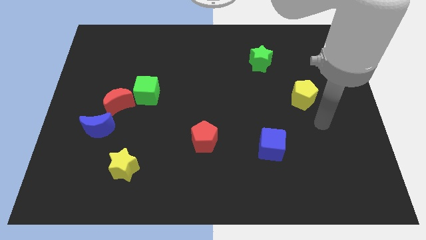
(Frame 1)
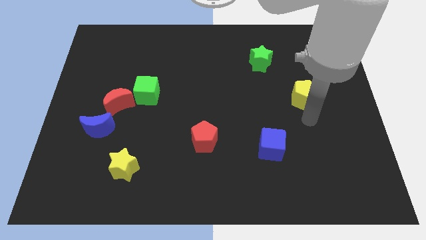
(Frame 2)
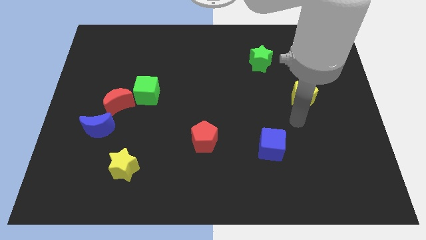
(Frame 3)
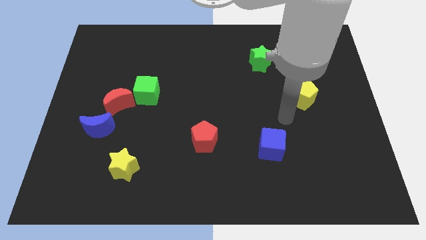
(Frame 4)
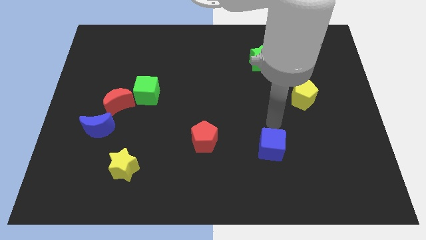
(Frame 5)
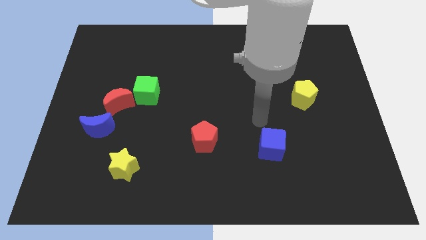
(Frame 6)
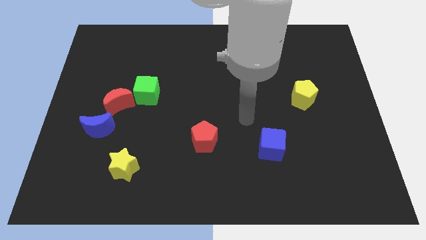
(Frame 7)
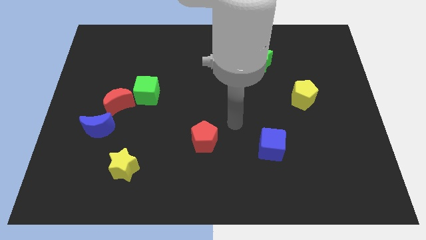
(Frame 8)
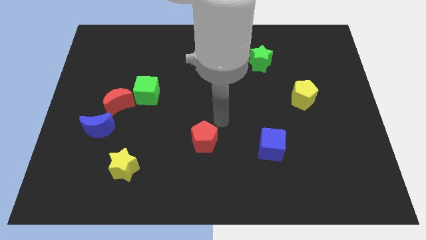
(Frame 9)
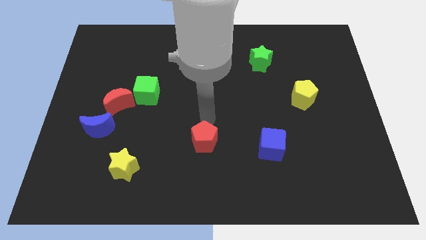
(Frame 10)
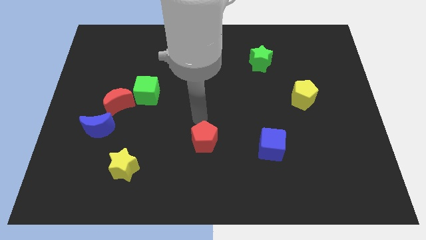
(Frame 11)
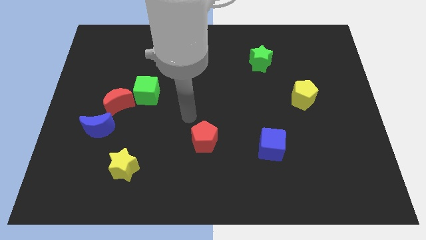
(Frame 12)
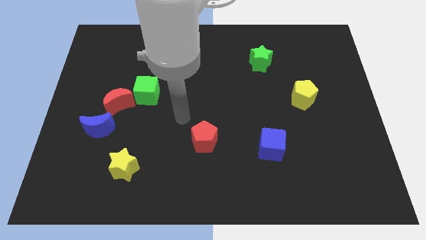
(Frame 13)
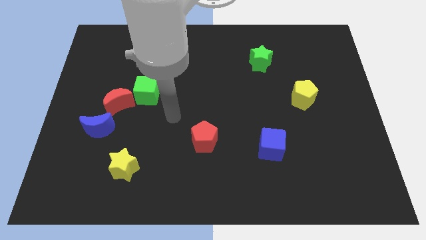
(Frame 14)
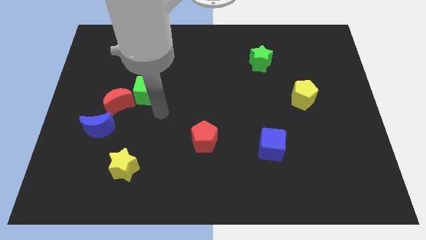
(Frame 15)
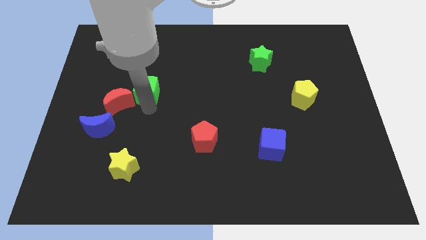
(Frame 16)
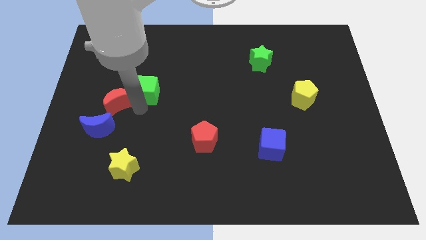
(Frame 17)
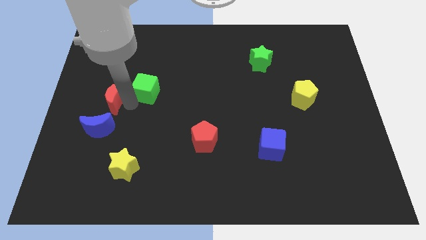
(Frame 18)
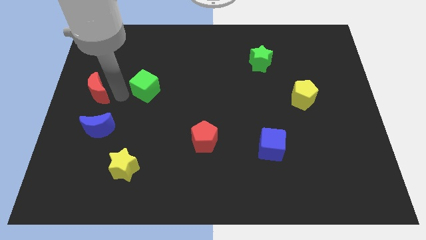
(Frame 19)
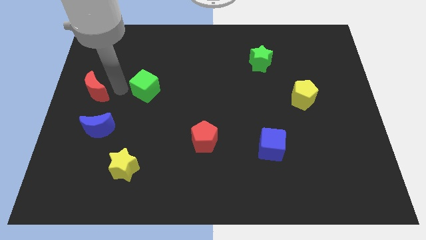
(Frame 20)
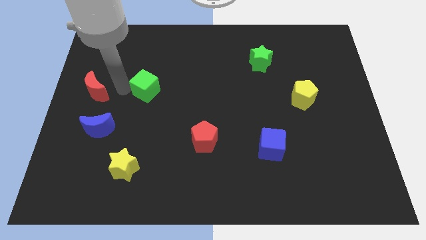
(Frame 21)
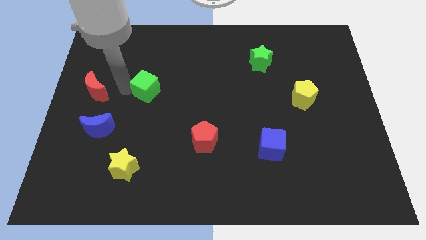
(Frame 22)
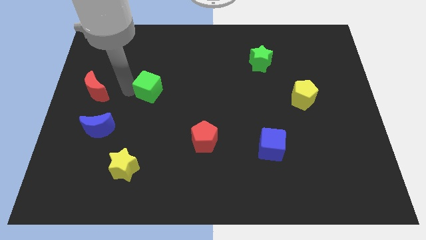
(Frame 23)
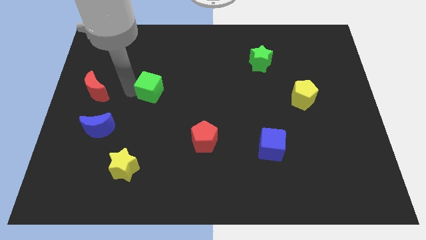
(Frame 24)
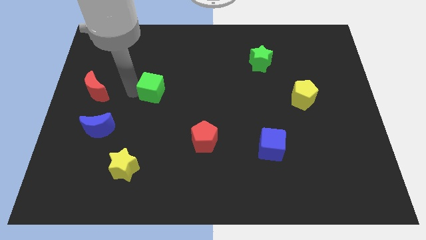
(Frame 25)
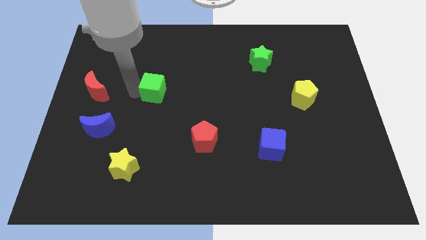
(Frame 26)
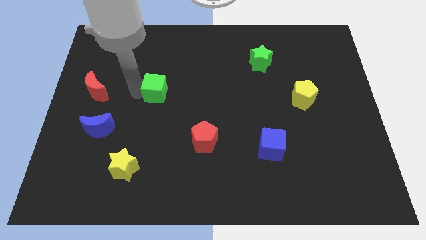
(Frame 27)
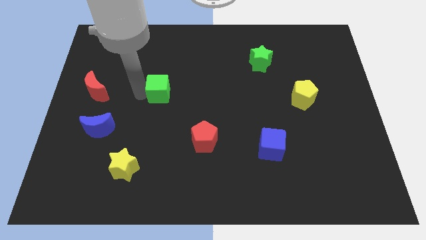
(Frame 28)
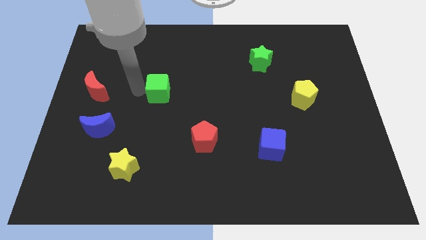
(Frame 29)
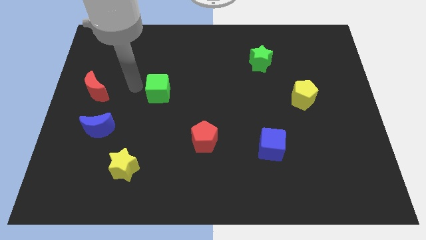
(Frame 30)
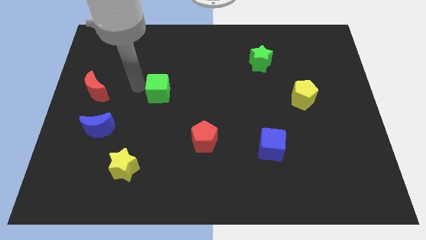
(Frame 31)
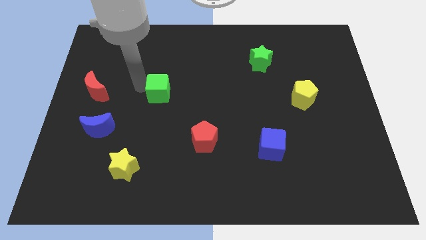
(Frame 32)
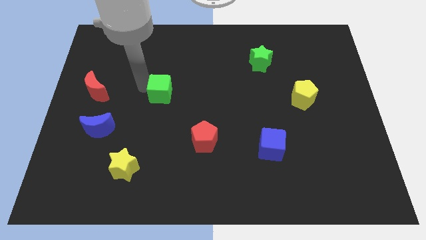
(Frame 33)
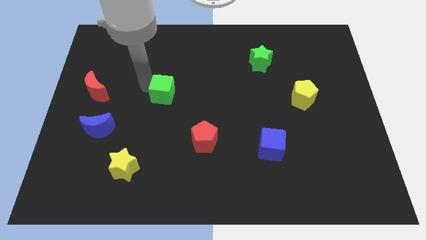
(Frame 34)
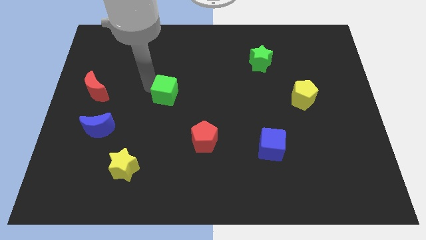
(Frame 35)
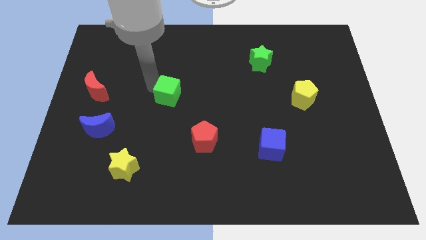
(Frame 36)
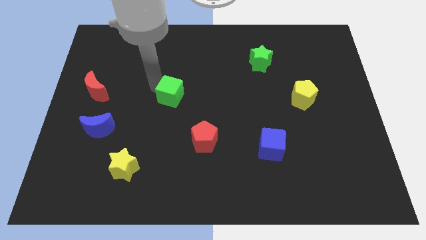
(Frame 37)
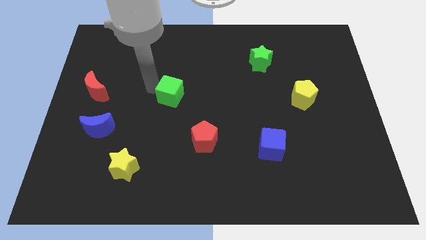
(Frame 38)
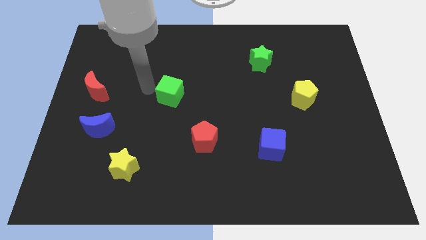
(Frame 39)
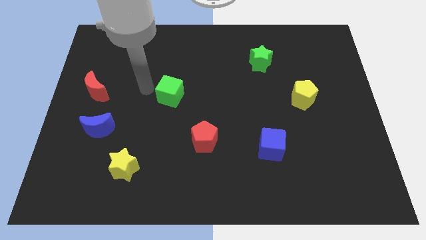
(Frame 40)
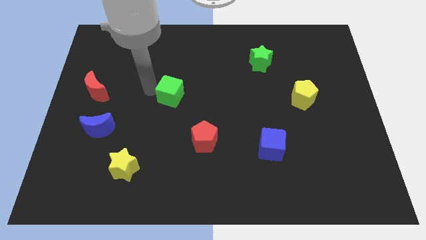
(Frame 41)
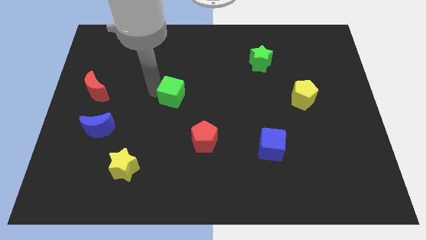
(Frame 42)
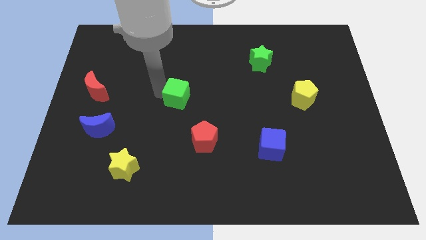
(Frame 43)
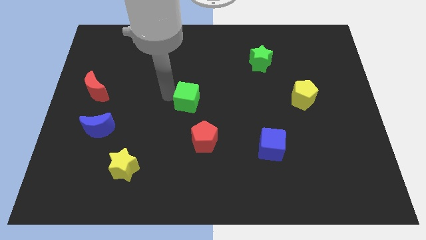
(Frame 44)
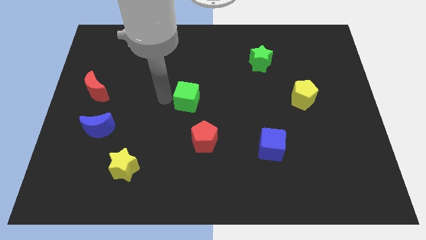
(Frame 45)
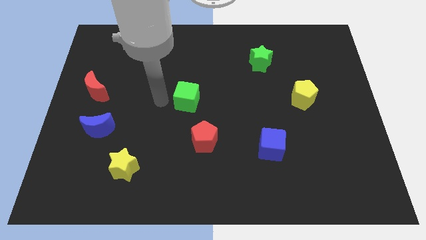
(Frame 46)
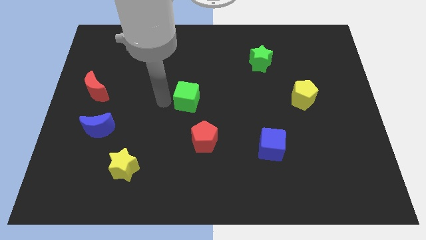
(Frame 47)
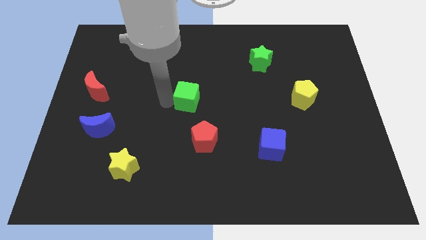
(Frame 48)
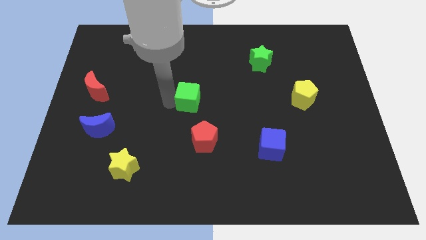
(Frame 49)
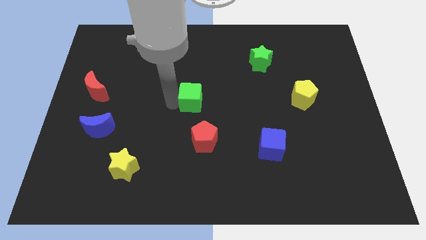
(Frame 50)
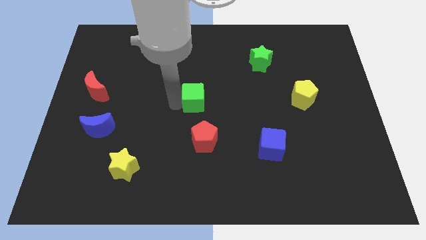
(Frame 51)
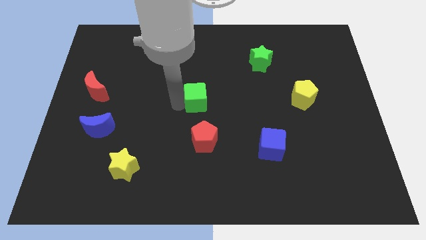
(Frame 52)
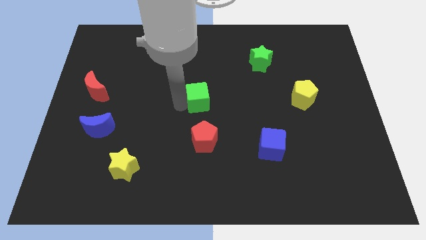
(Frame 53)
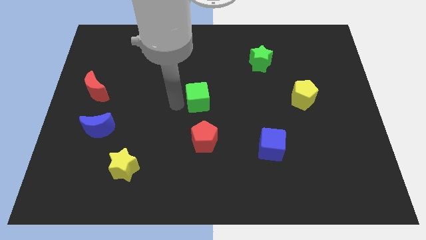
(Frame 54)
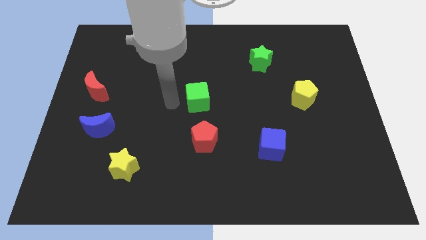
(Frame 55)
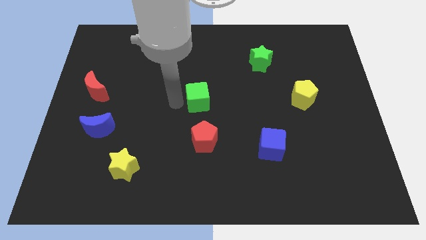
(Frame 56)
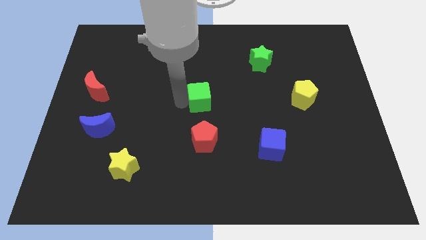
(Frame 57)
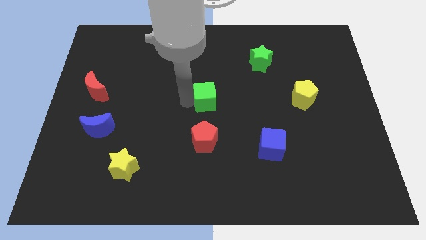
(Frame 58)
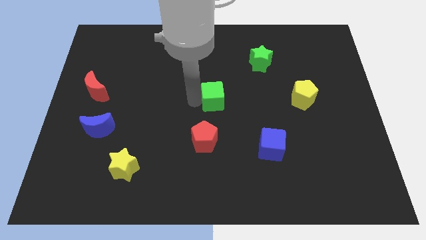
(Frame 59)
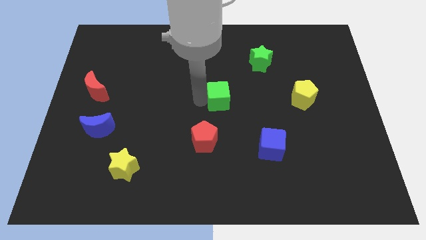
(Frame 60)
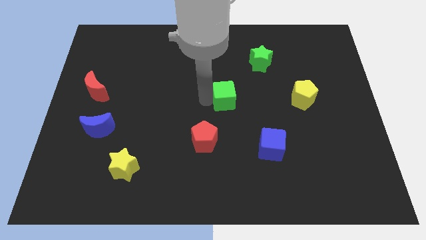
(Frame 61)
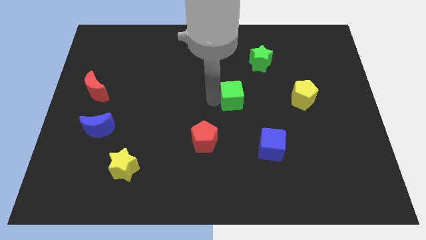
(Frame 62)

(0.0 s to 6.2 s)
push the green cube right

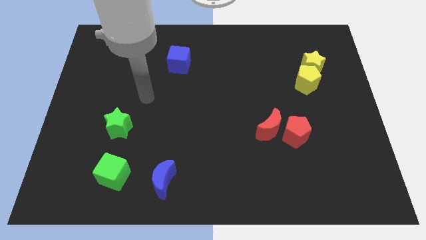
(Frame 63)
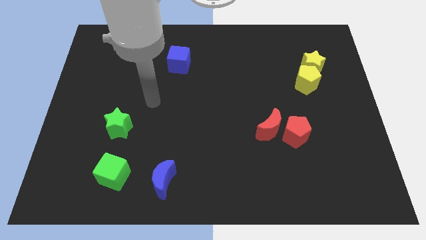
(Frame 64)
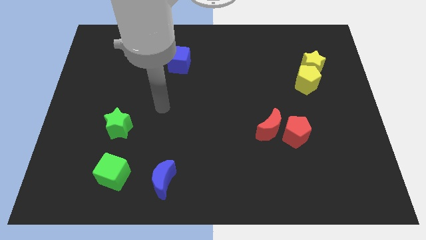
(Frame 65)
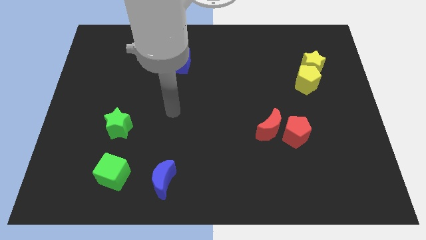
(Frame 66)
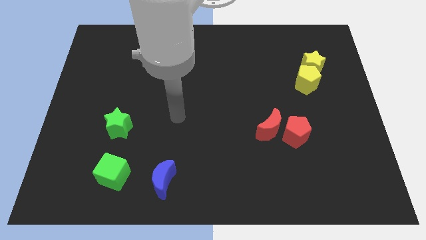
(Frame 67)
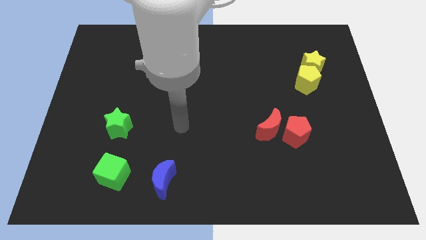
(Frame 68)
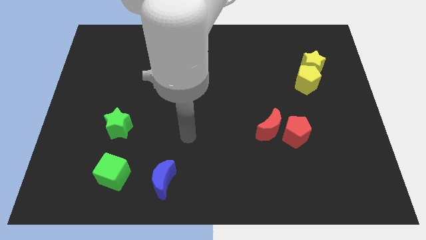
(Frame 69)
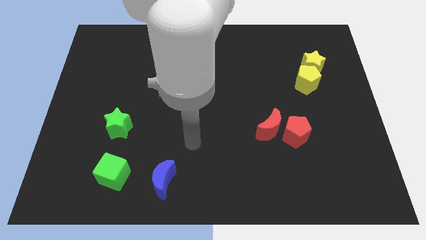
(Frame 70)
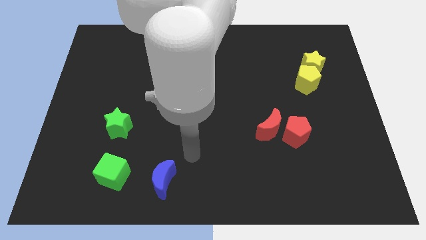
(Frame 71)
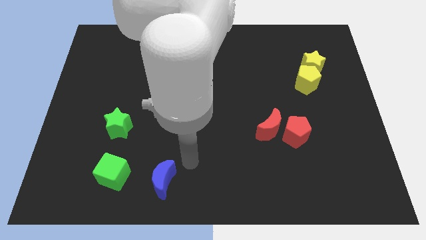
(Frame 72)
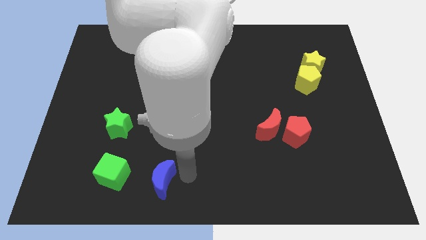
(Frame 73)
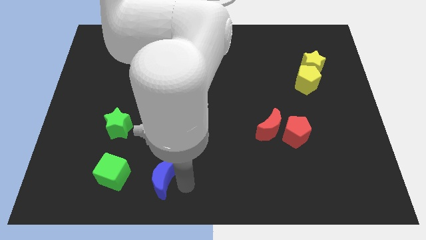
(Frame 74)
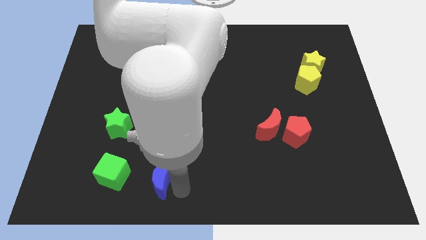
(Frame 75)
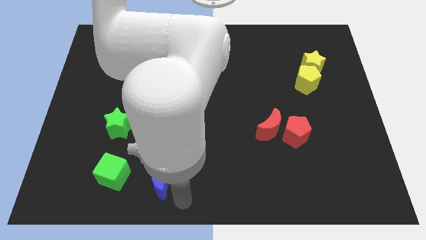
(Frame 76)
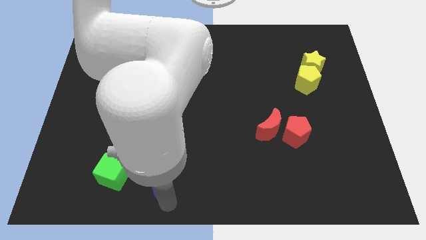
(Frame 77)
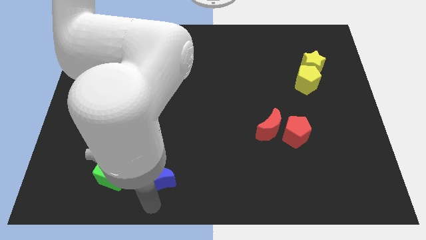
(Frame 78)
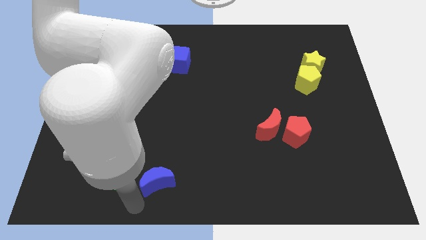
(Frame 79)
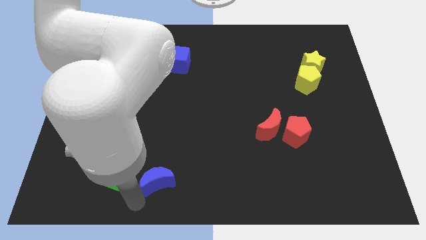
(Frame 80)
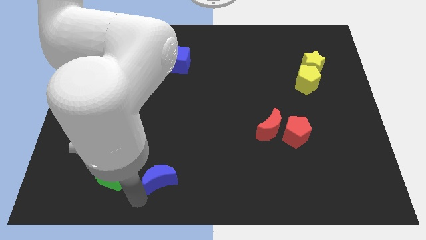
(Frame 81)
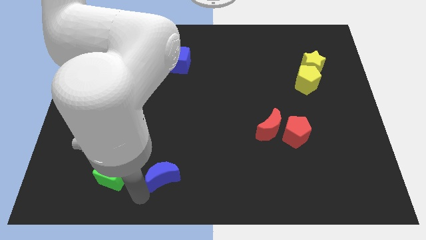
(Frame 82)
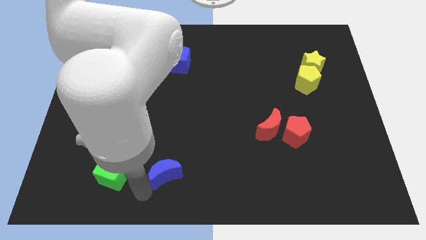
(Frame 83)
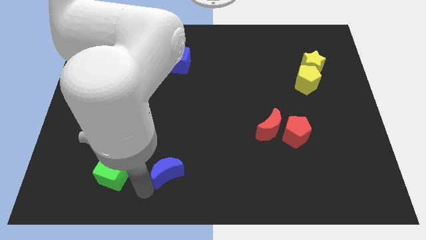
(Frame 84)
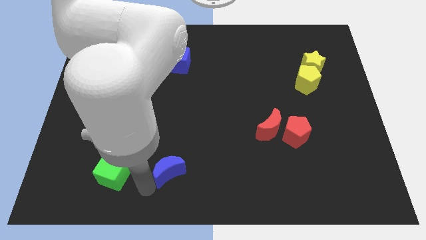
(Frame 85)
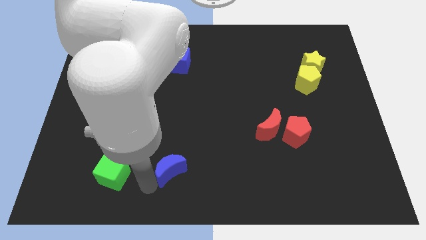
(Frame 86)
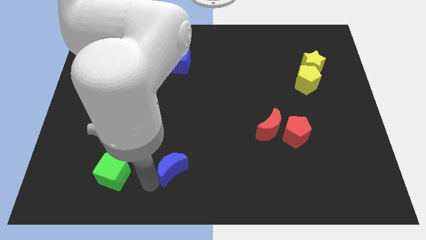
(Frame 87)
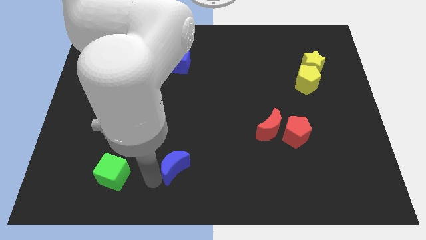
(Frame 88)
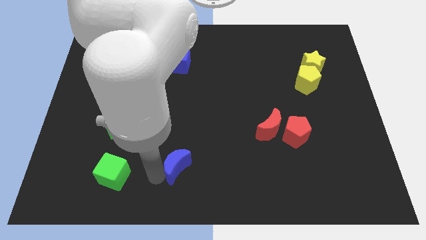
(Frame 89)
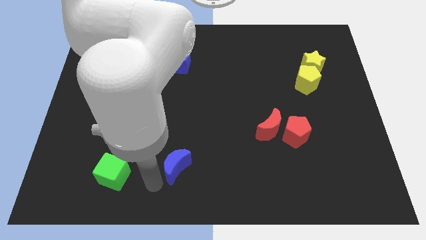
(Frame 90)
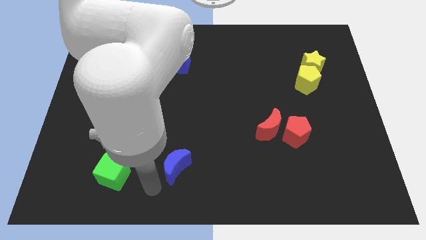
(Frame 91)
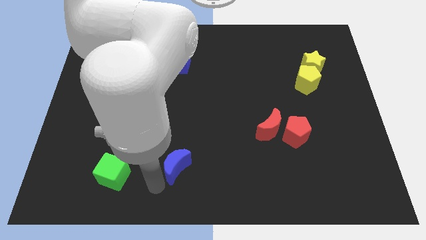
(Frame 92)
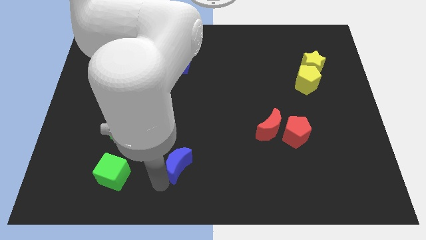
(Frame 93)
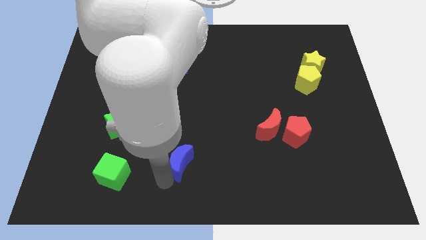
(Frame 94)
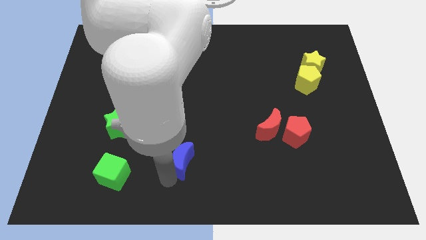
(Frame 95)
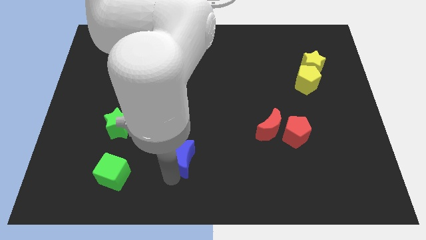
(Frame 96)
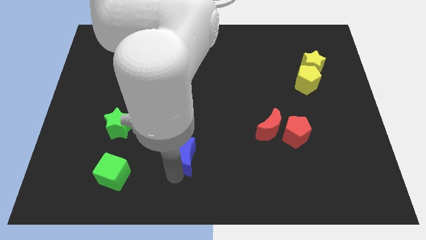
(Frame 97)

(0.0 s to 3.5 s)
slide the blue moon a little bit up and right diagonally
